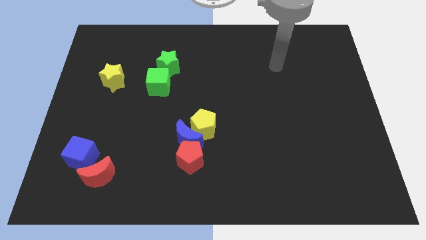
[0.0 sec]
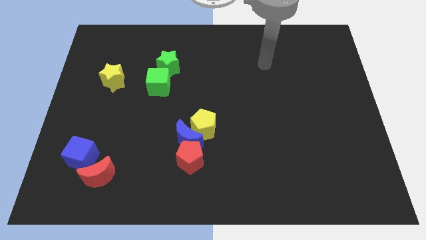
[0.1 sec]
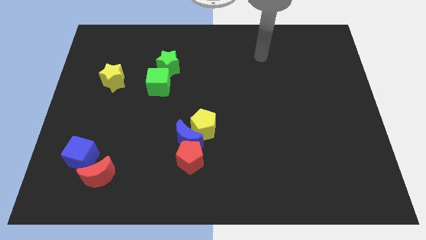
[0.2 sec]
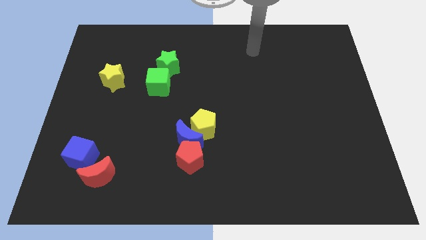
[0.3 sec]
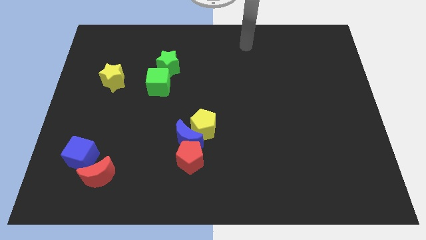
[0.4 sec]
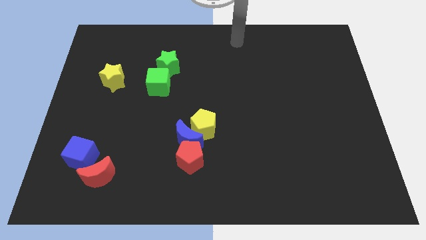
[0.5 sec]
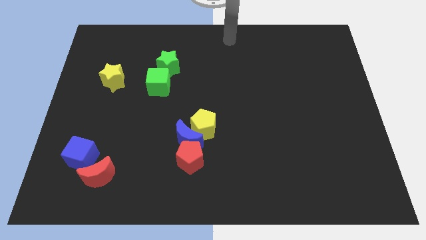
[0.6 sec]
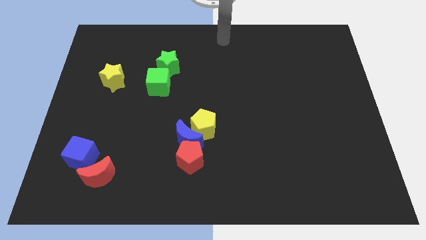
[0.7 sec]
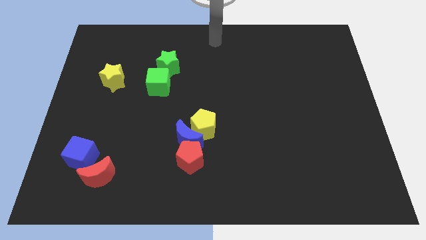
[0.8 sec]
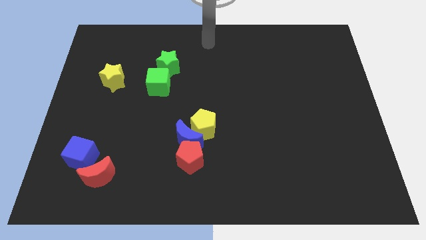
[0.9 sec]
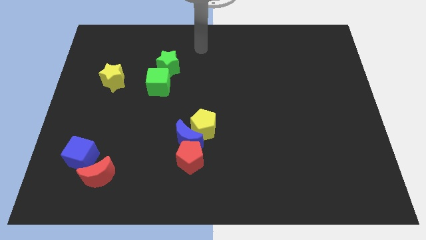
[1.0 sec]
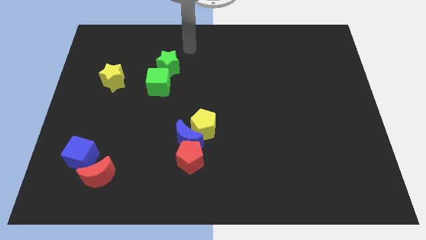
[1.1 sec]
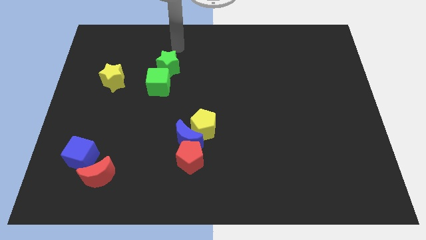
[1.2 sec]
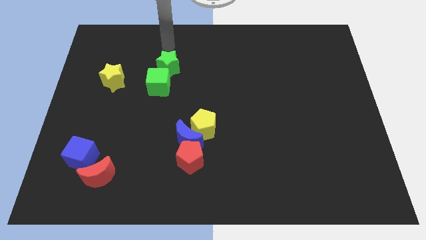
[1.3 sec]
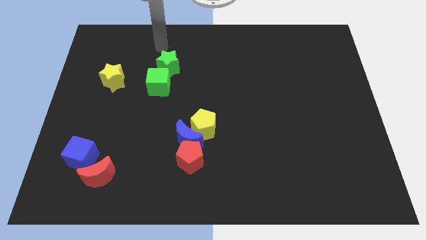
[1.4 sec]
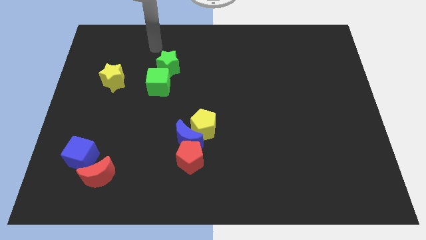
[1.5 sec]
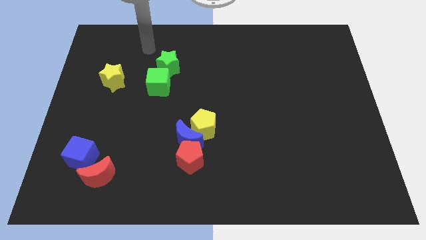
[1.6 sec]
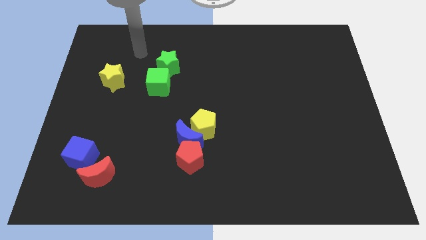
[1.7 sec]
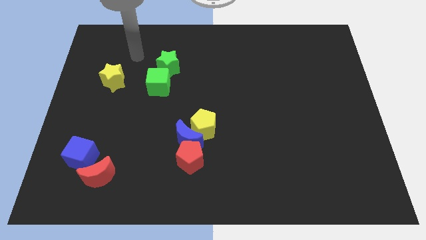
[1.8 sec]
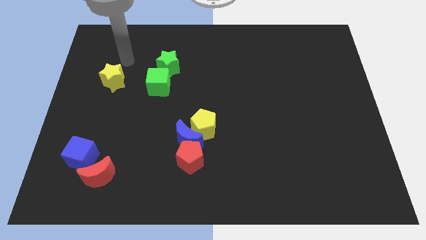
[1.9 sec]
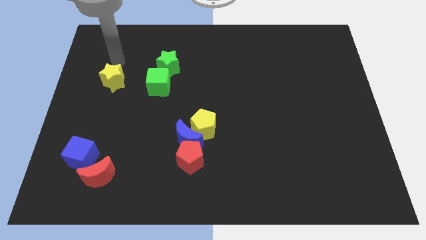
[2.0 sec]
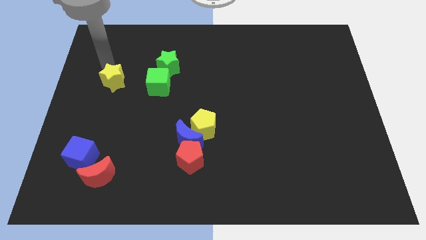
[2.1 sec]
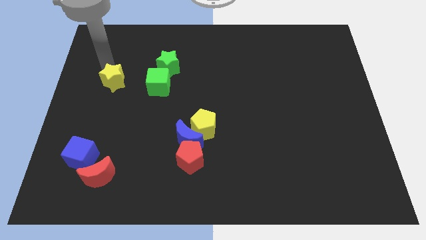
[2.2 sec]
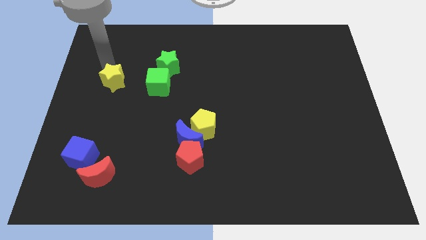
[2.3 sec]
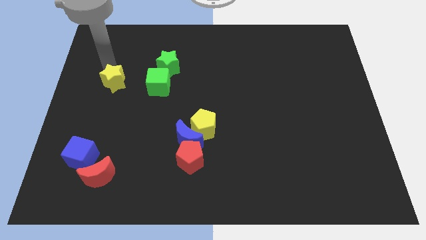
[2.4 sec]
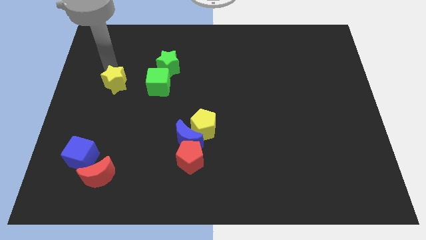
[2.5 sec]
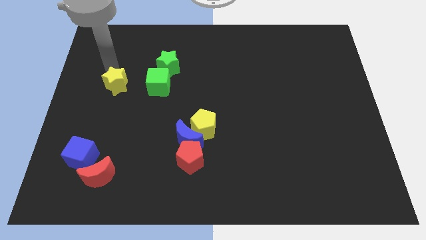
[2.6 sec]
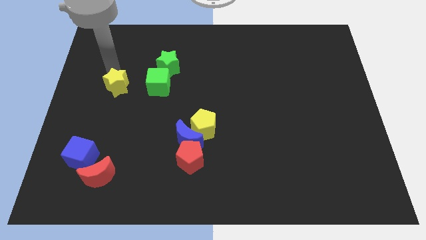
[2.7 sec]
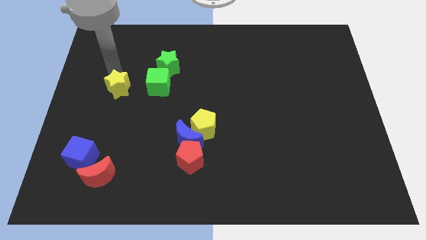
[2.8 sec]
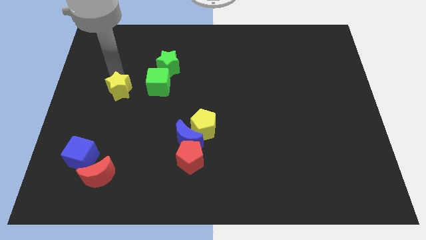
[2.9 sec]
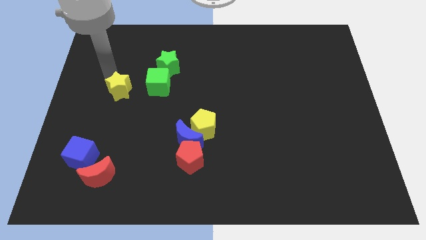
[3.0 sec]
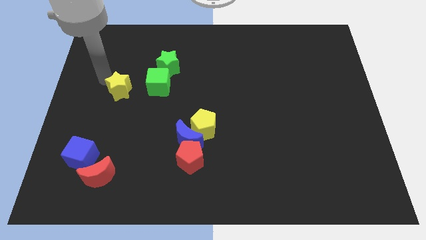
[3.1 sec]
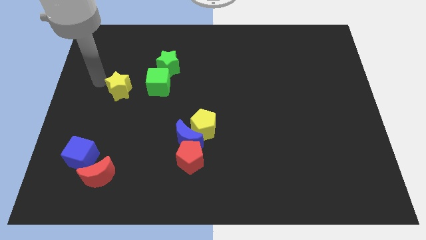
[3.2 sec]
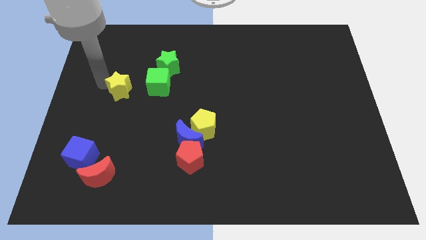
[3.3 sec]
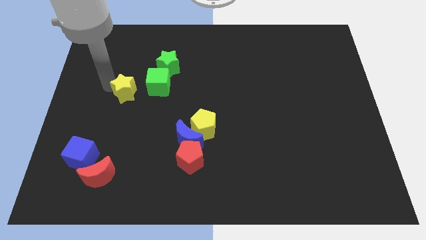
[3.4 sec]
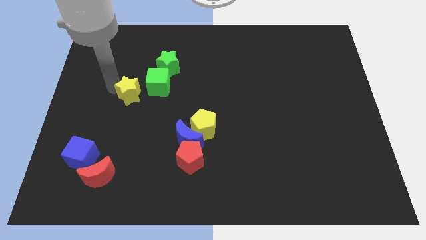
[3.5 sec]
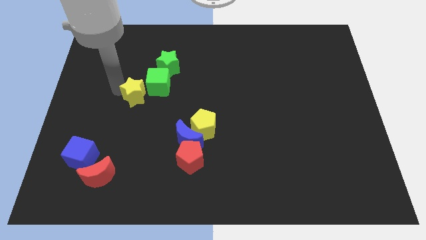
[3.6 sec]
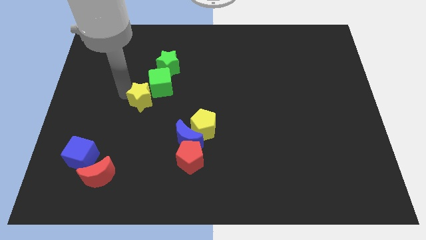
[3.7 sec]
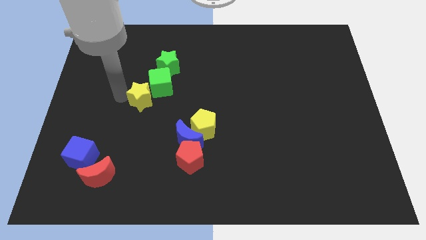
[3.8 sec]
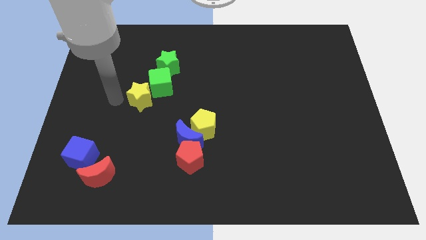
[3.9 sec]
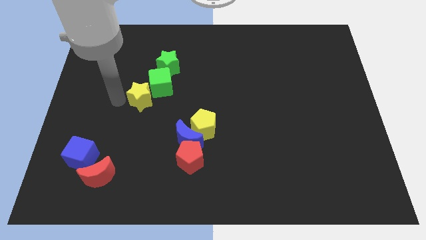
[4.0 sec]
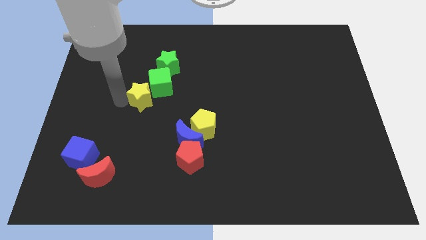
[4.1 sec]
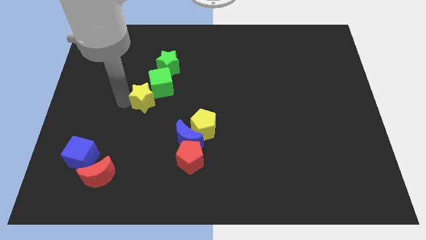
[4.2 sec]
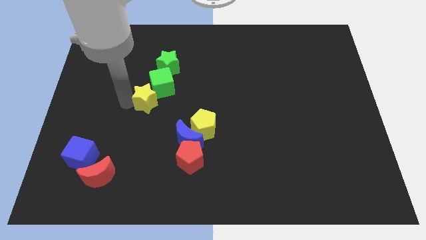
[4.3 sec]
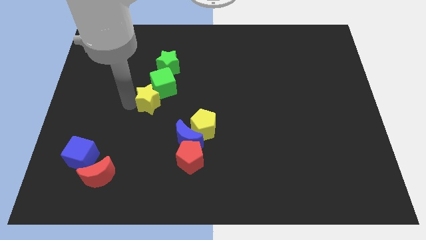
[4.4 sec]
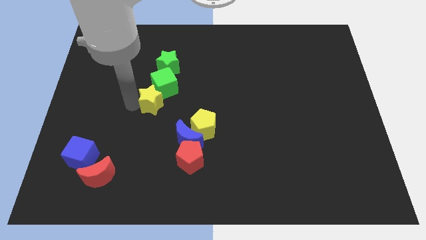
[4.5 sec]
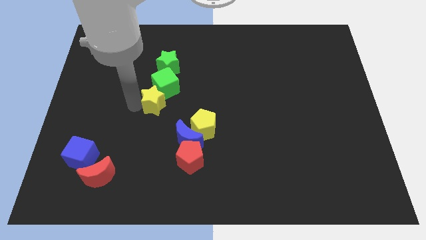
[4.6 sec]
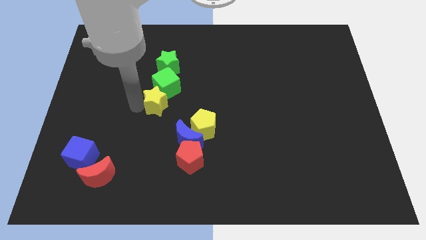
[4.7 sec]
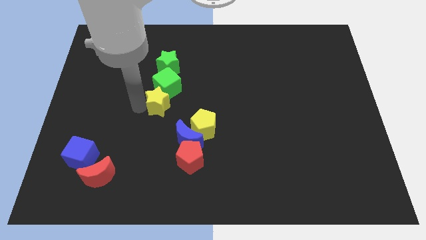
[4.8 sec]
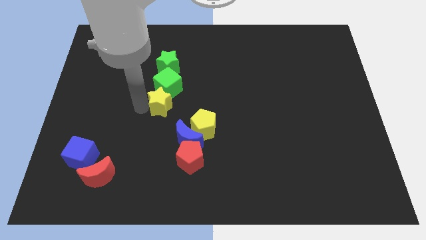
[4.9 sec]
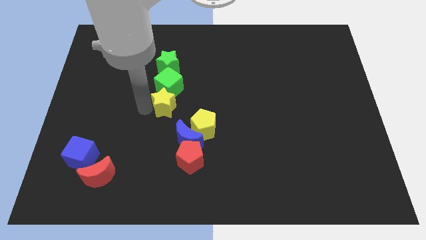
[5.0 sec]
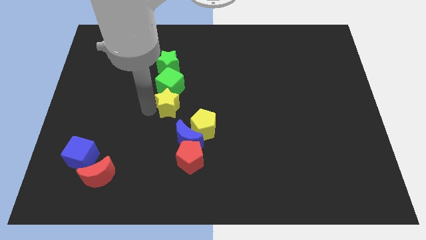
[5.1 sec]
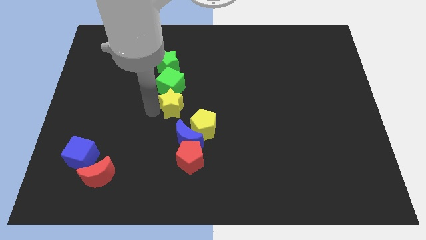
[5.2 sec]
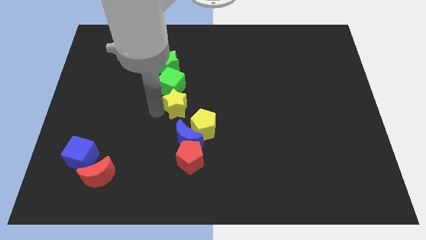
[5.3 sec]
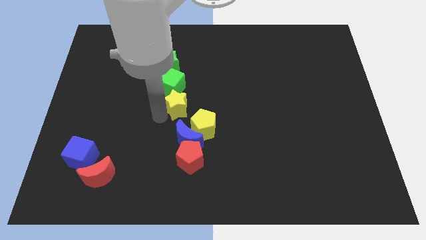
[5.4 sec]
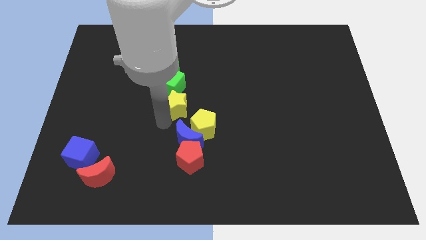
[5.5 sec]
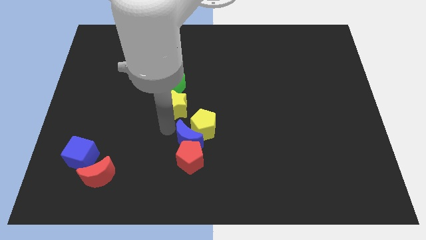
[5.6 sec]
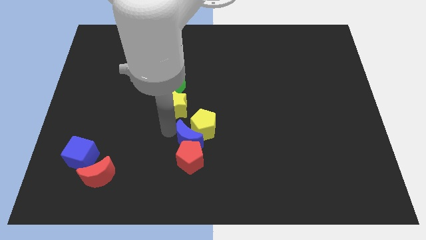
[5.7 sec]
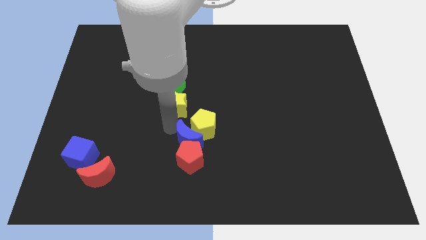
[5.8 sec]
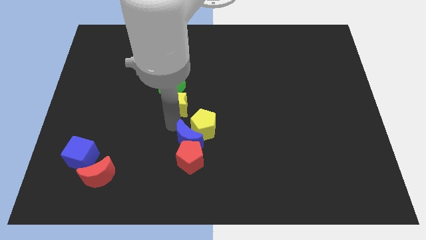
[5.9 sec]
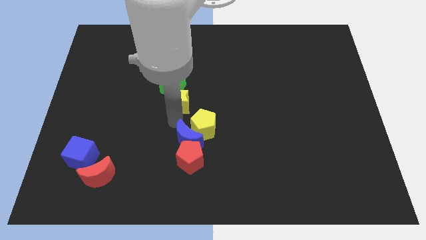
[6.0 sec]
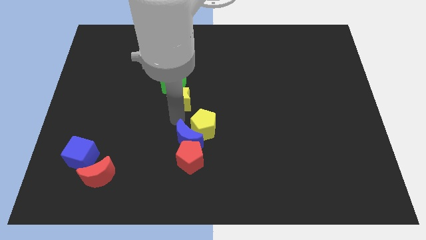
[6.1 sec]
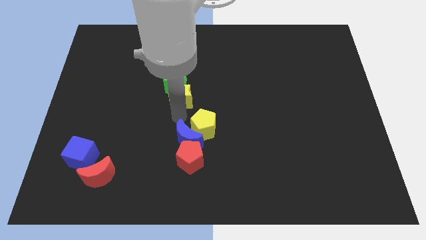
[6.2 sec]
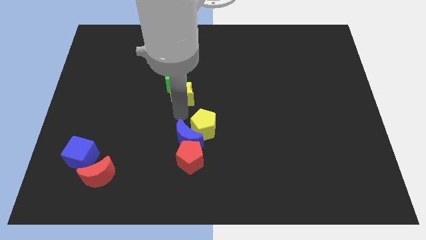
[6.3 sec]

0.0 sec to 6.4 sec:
move the yellow star diagonally down and to the right of the green star

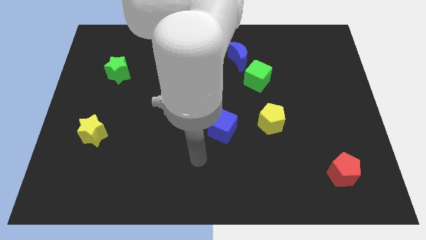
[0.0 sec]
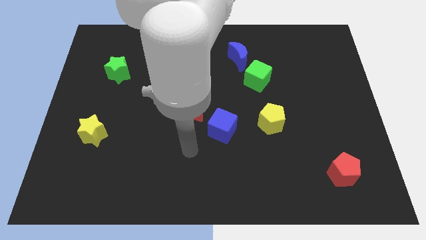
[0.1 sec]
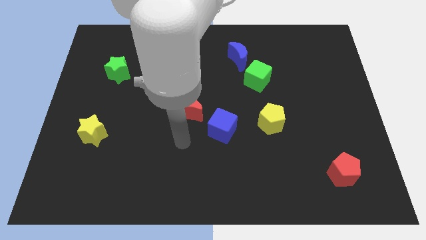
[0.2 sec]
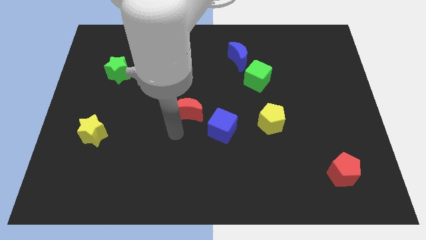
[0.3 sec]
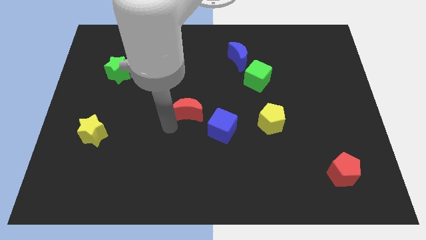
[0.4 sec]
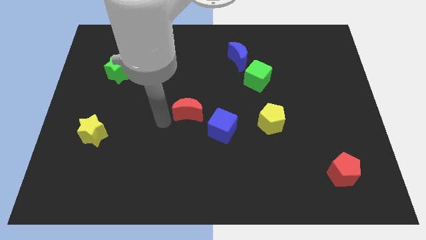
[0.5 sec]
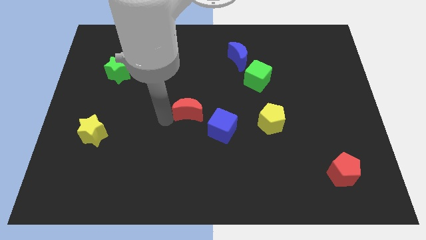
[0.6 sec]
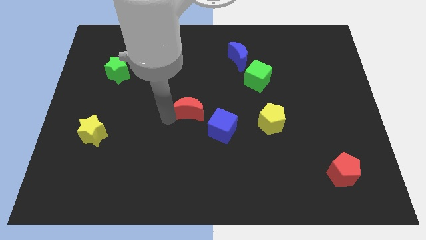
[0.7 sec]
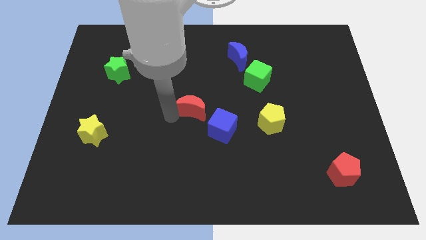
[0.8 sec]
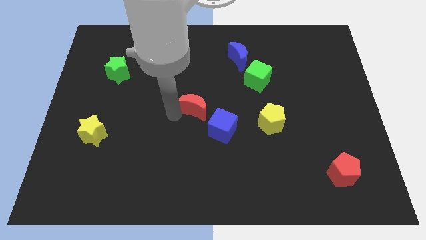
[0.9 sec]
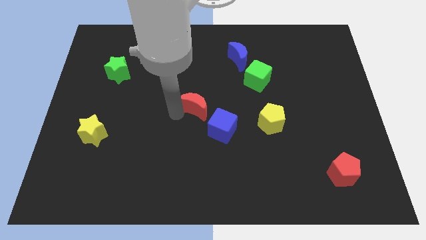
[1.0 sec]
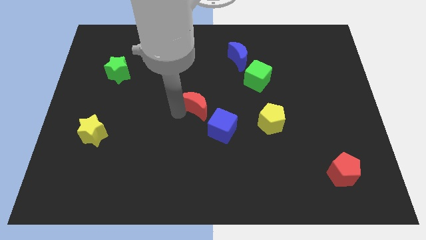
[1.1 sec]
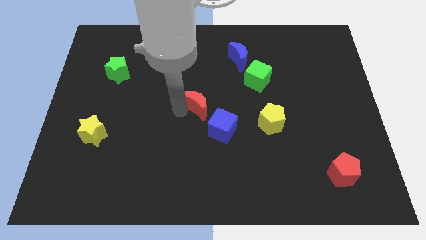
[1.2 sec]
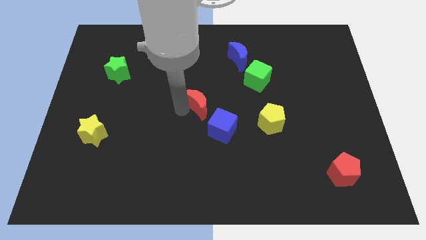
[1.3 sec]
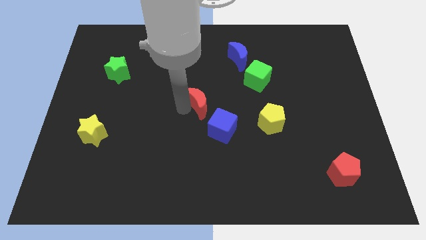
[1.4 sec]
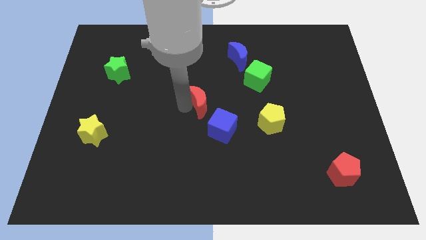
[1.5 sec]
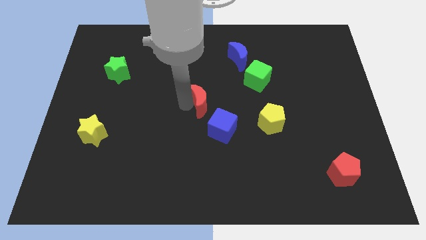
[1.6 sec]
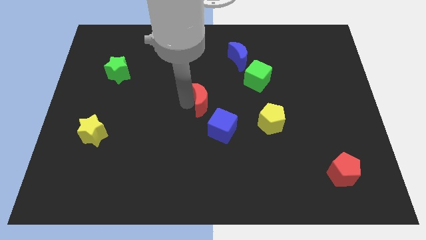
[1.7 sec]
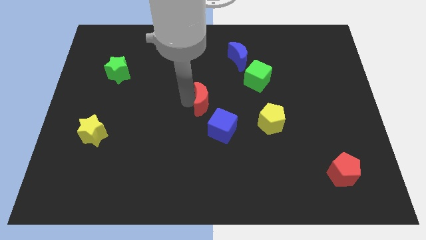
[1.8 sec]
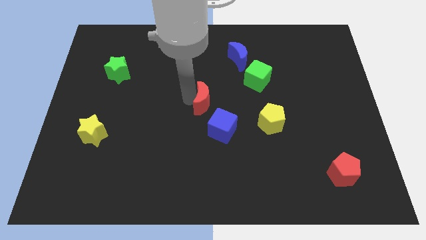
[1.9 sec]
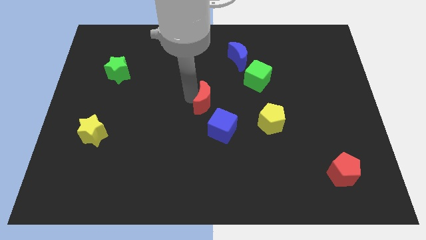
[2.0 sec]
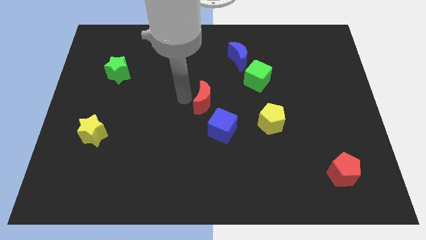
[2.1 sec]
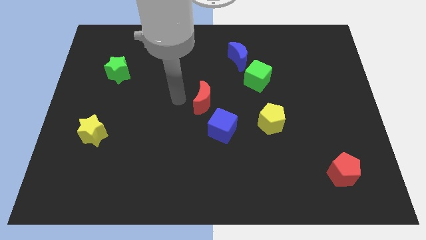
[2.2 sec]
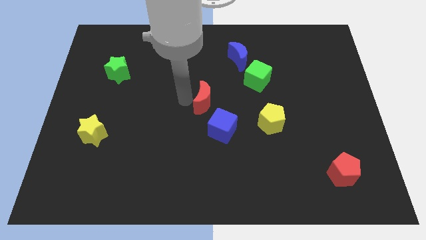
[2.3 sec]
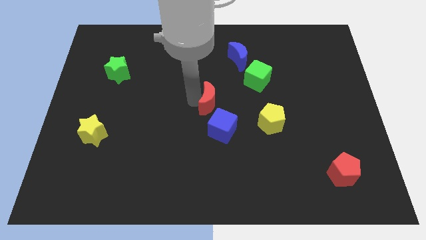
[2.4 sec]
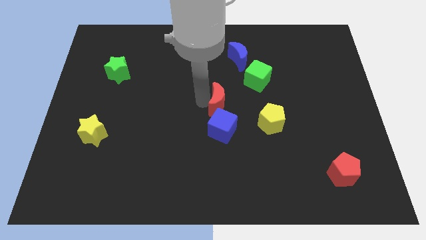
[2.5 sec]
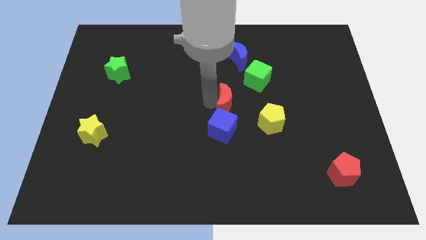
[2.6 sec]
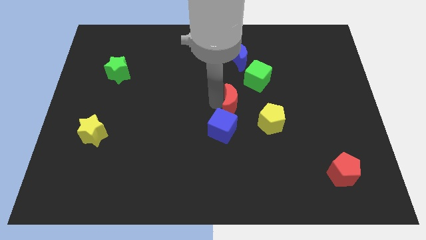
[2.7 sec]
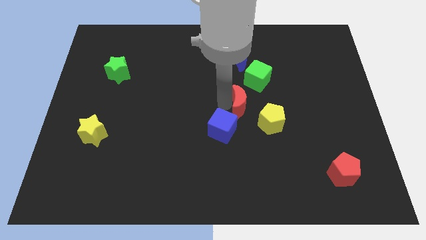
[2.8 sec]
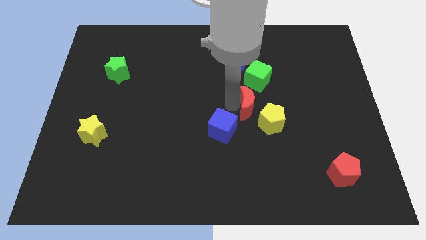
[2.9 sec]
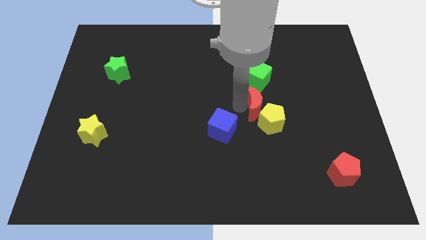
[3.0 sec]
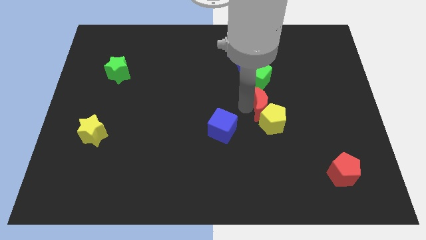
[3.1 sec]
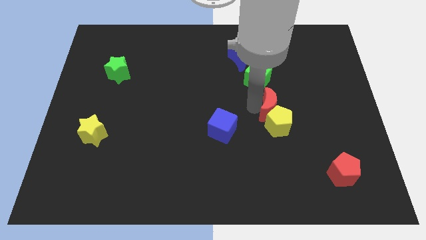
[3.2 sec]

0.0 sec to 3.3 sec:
push the red moon diagonally up and to the right of the yellow pentagon
